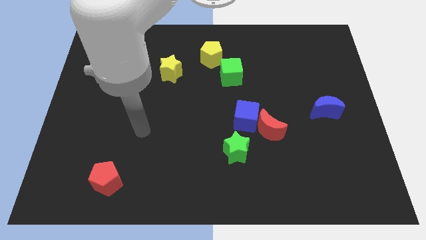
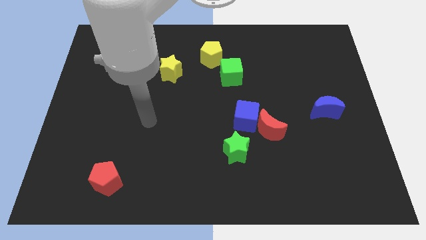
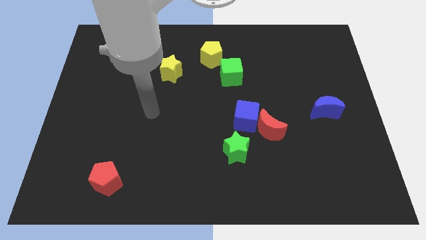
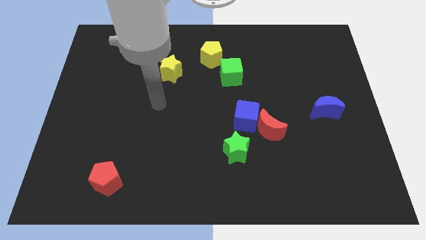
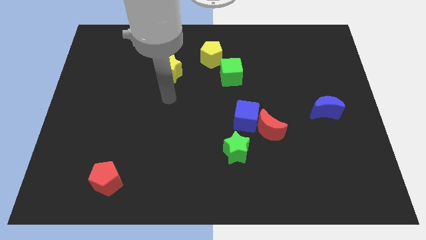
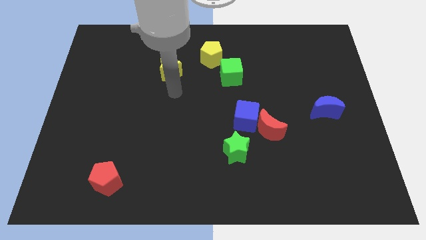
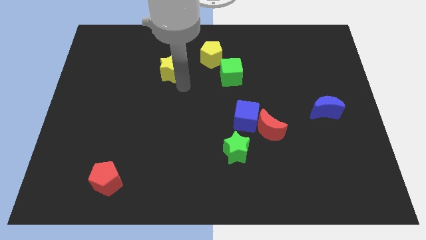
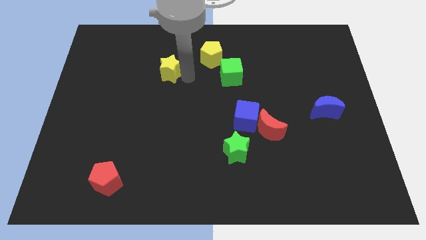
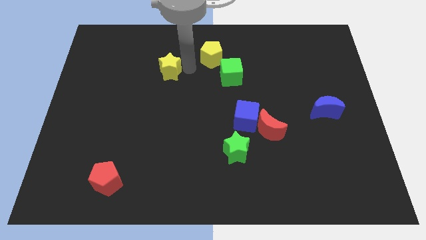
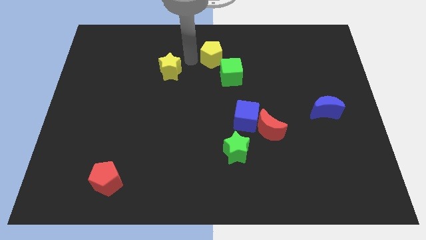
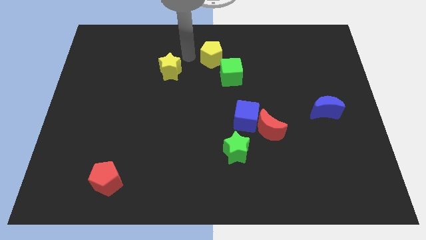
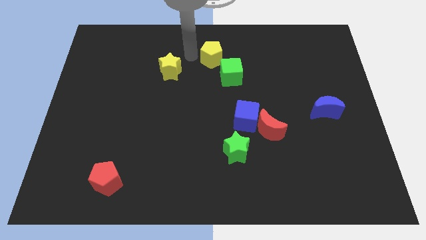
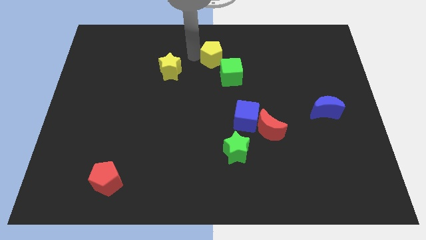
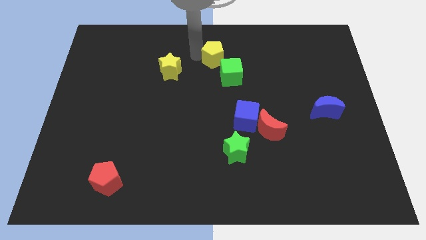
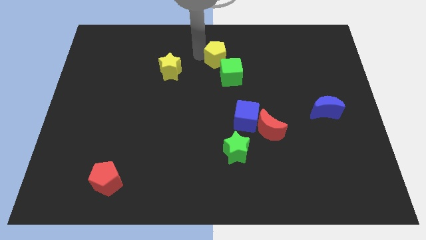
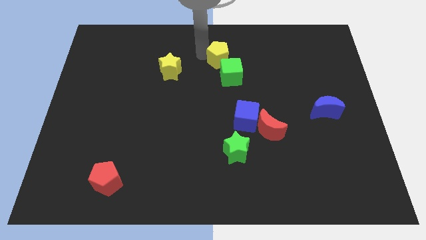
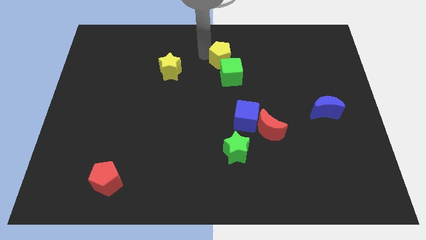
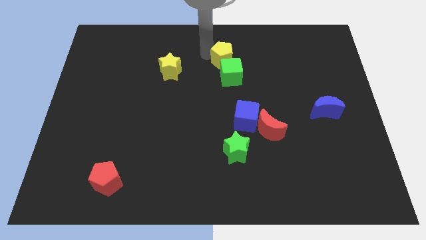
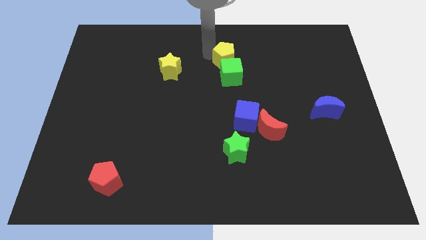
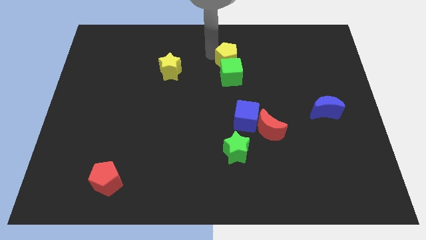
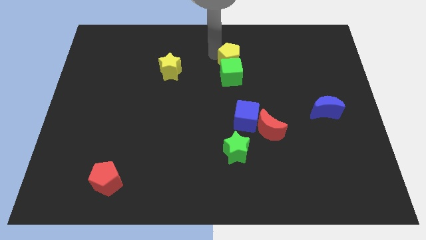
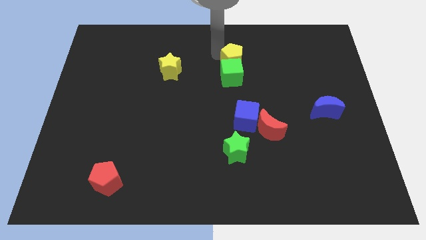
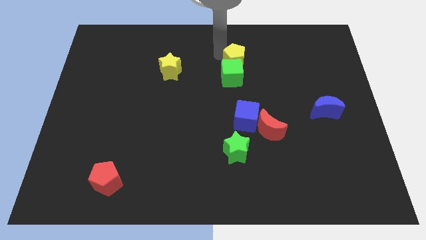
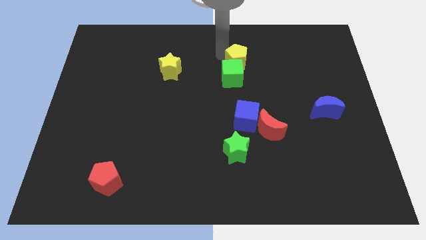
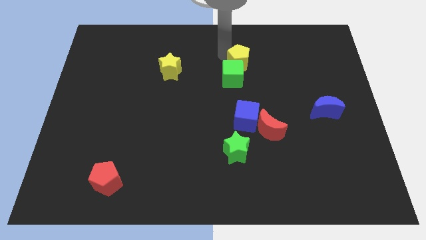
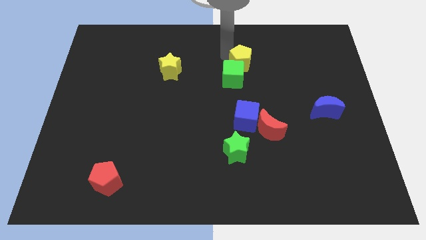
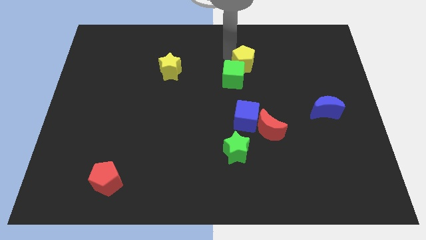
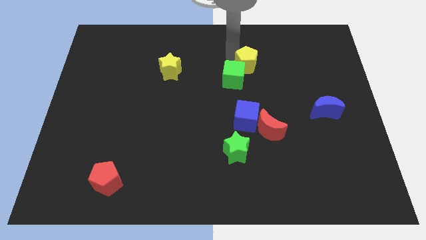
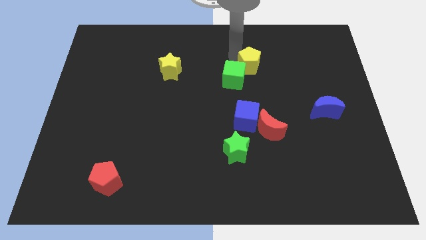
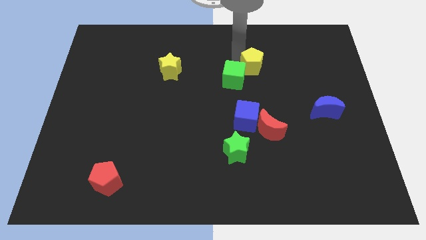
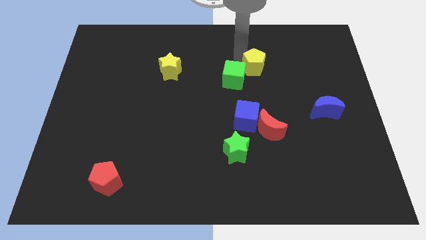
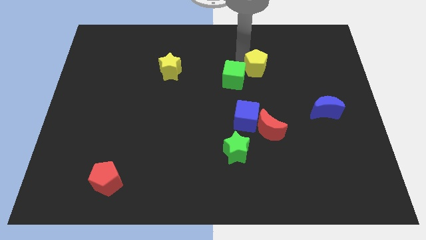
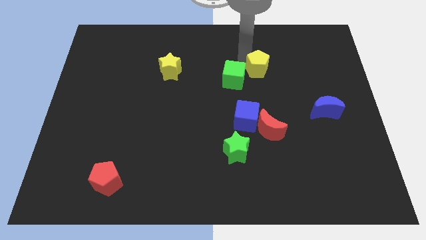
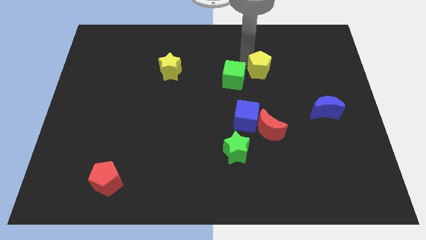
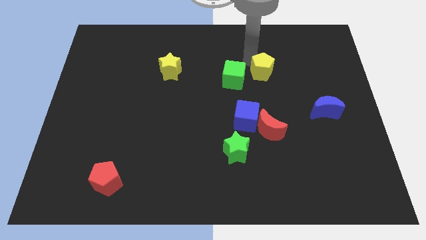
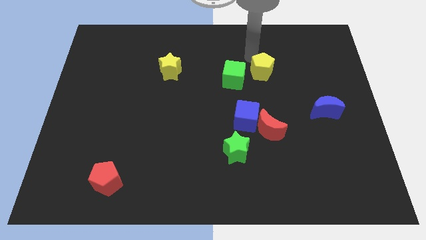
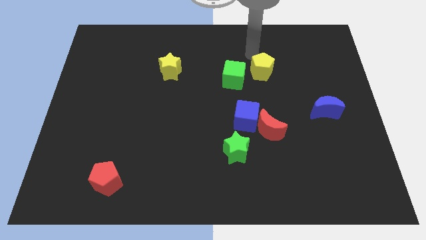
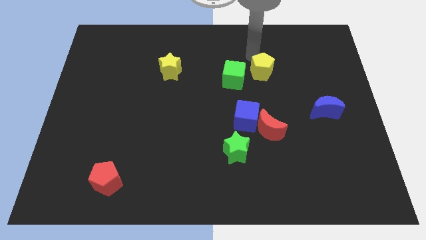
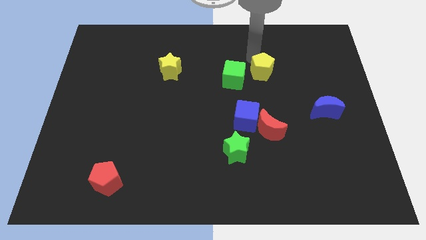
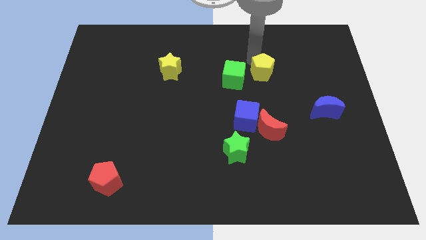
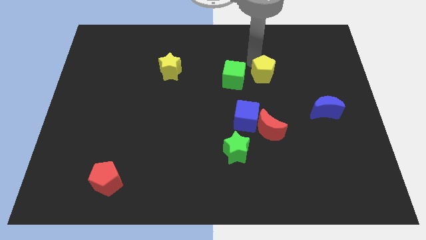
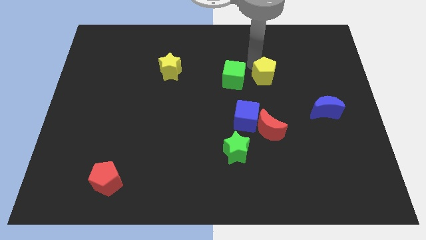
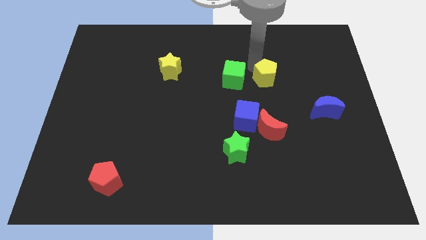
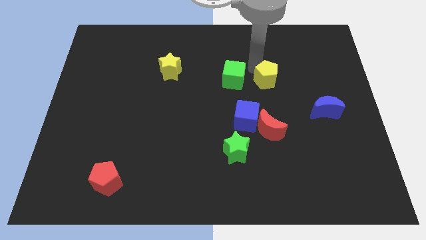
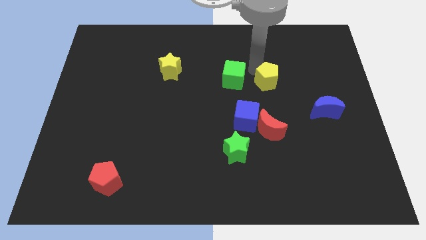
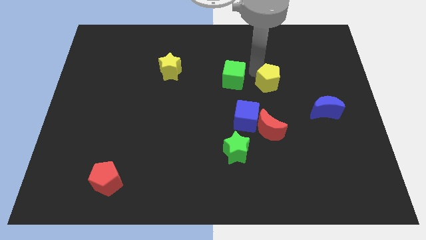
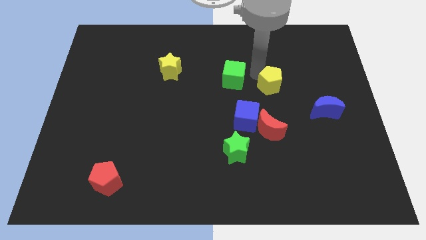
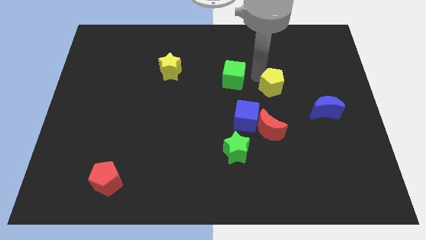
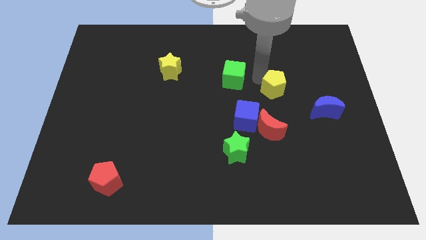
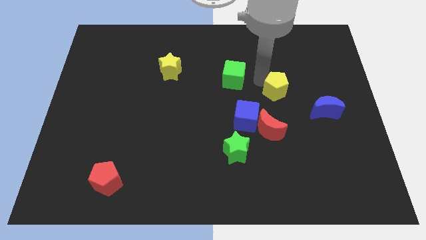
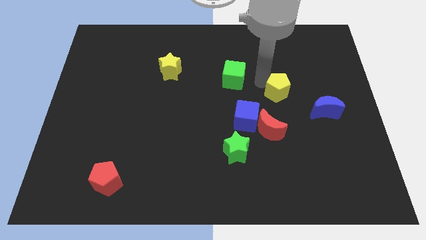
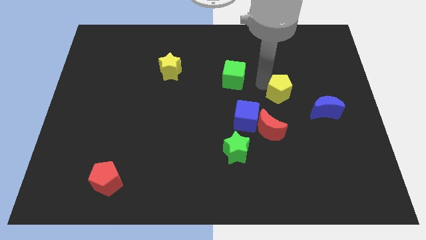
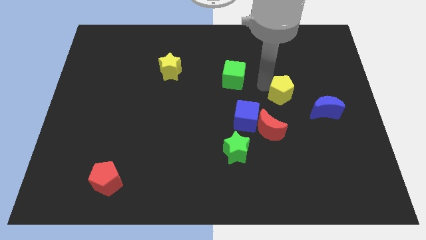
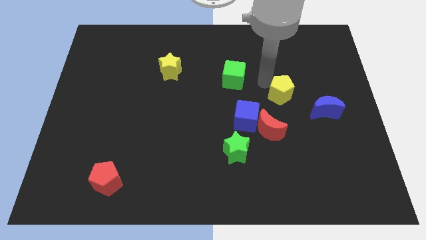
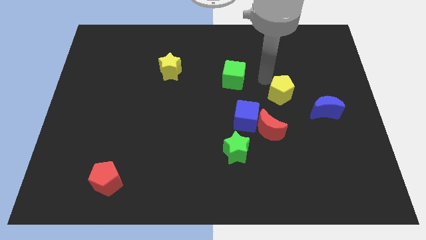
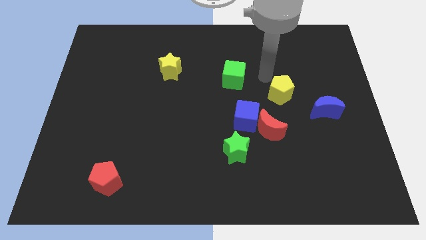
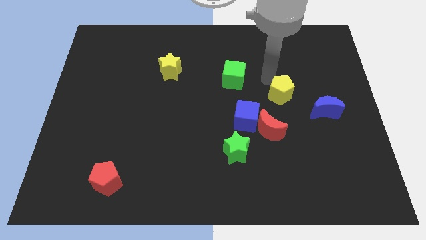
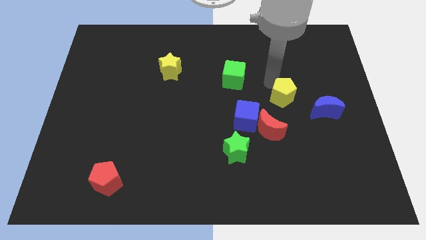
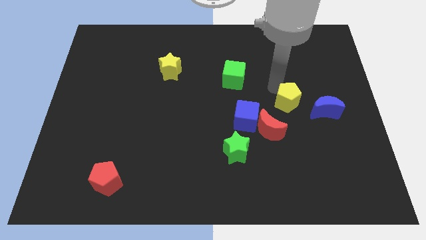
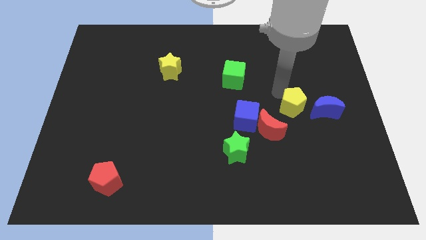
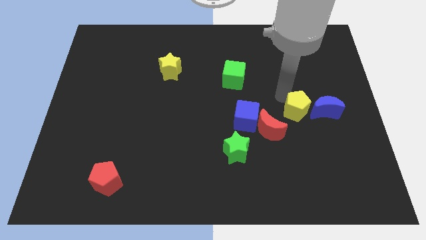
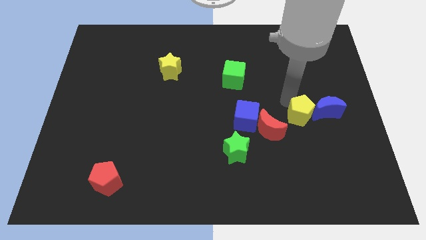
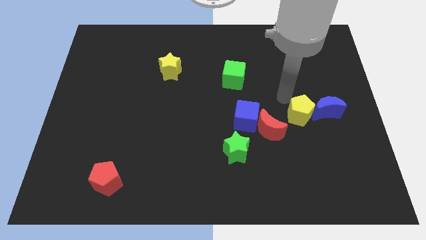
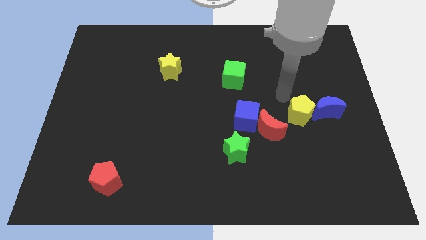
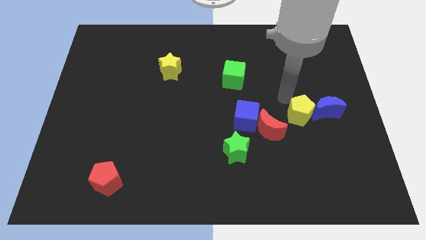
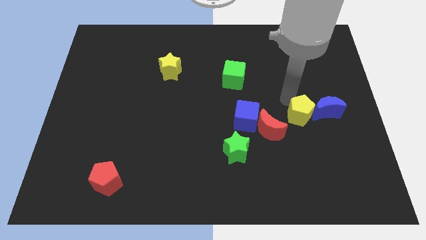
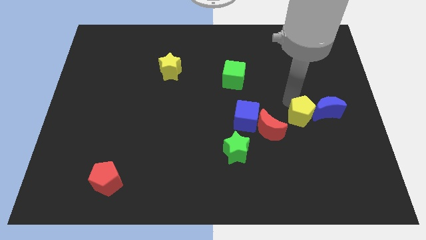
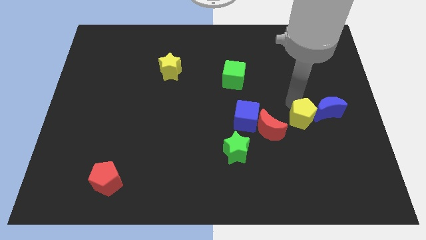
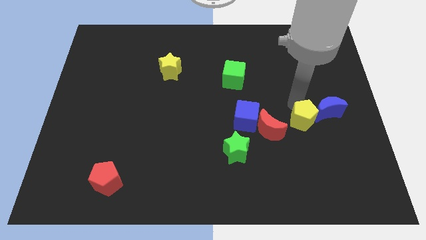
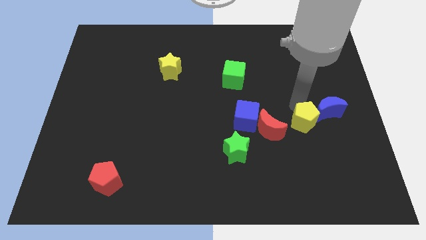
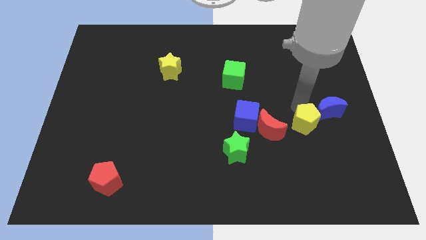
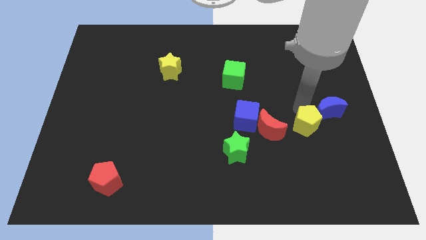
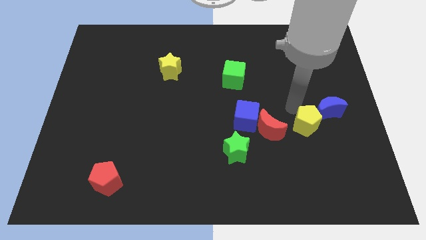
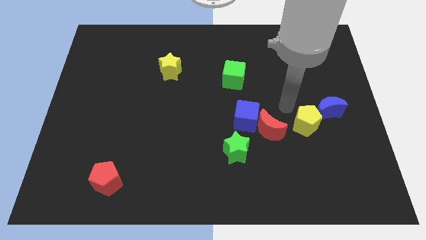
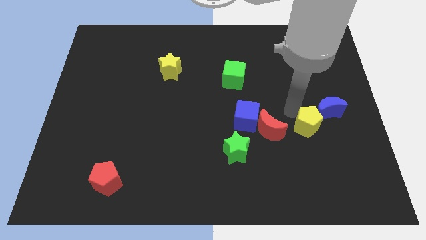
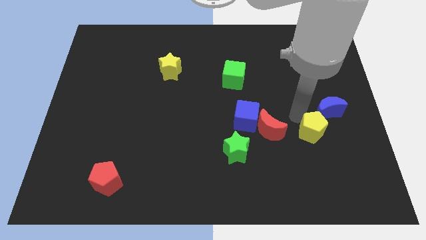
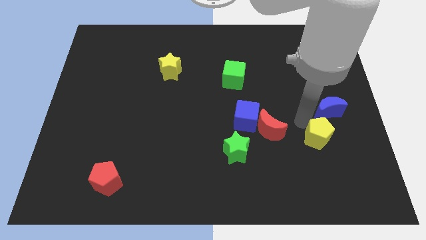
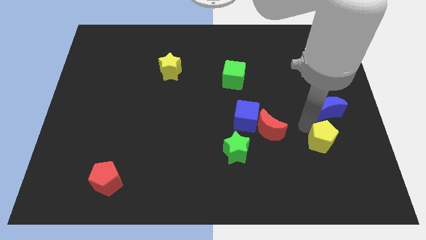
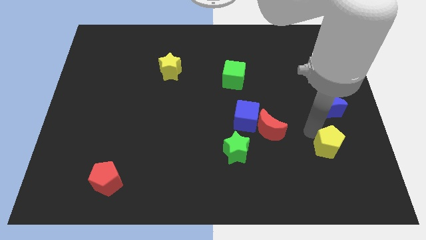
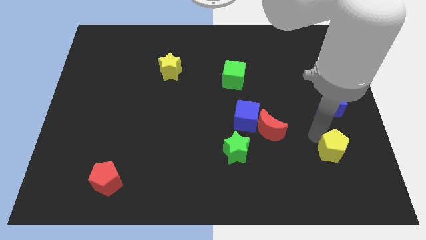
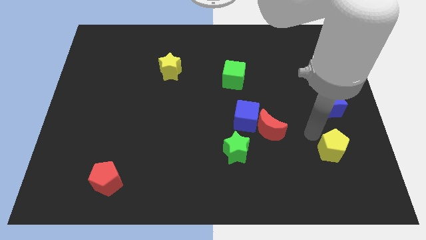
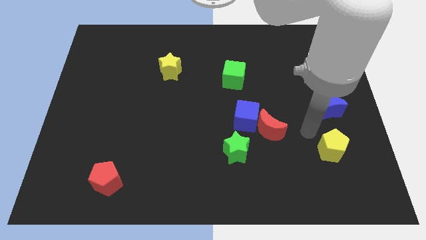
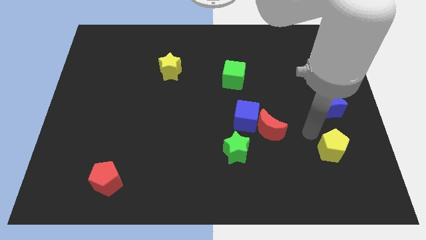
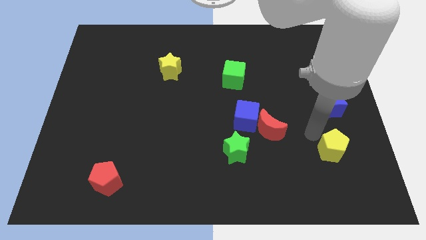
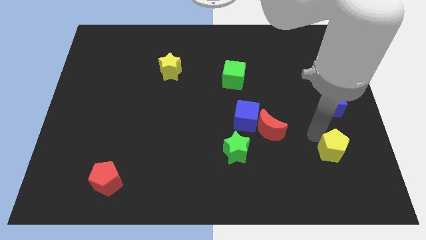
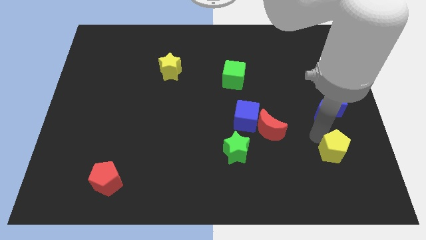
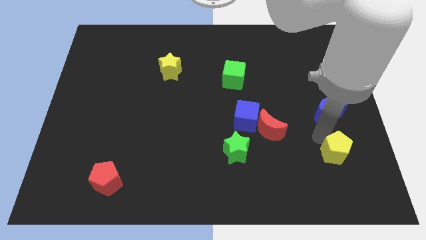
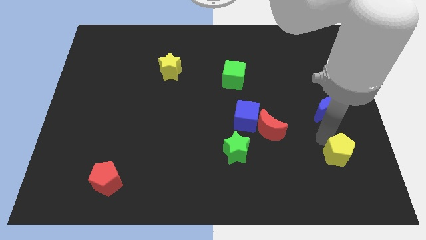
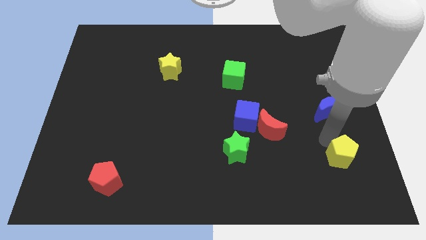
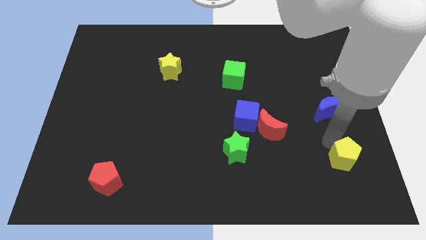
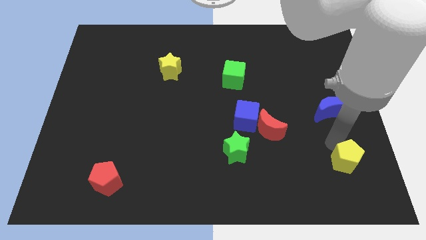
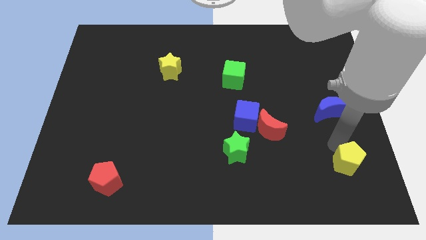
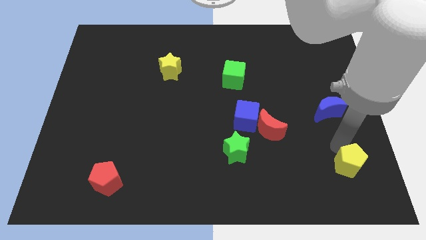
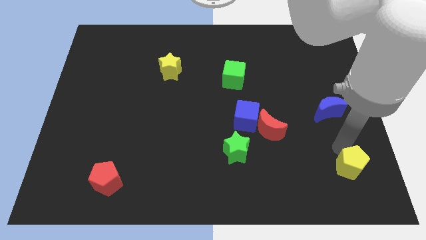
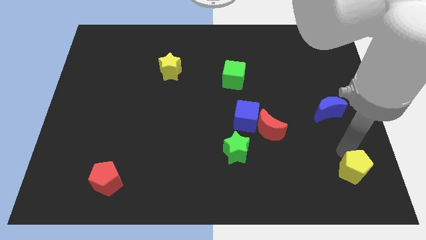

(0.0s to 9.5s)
move the yellow pentagon to the bottom right of the board
